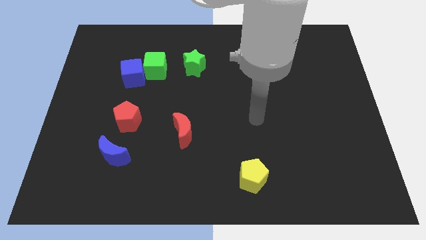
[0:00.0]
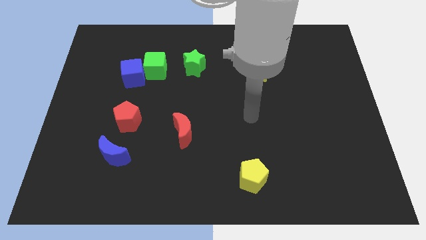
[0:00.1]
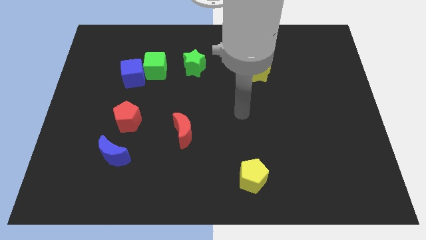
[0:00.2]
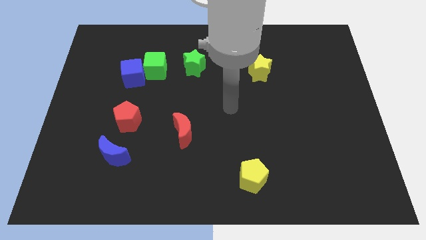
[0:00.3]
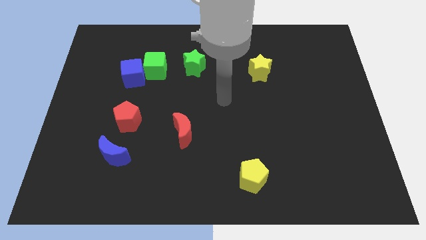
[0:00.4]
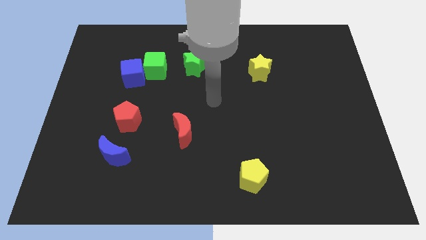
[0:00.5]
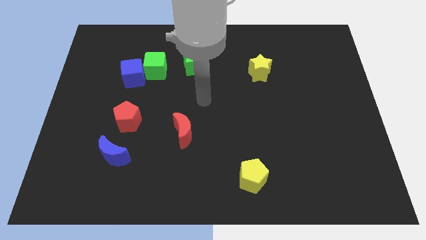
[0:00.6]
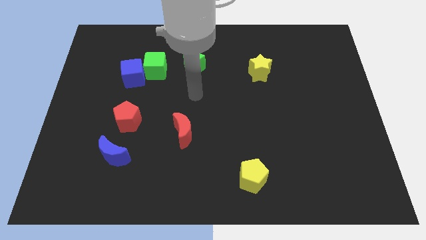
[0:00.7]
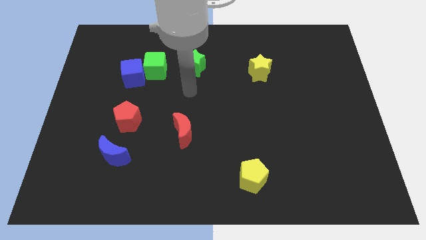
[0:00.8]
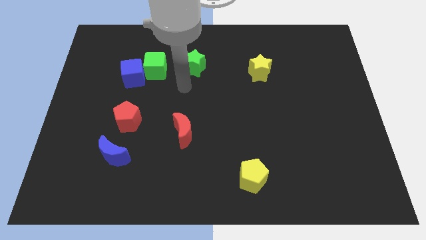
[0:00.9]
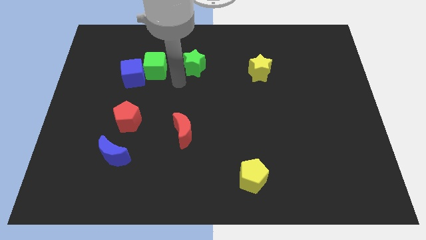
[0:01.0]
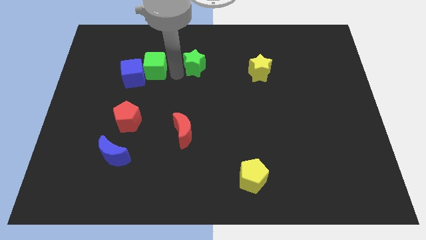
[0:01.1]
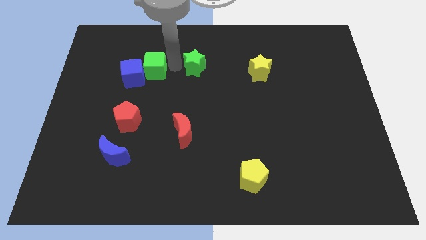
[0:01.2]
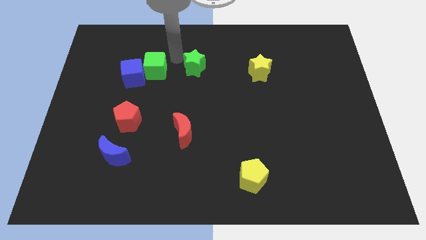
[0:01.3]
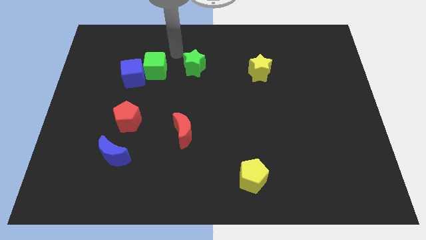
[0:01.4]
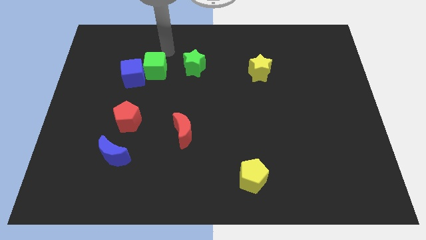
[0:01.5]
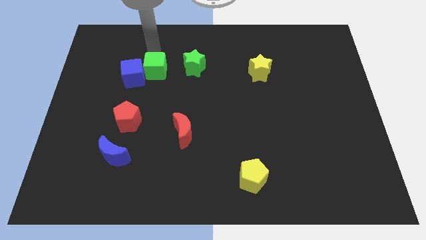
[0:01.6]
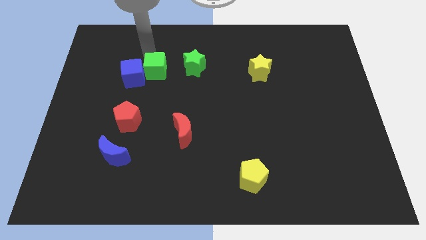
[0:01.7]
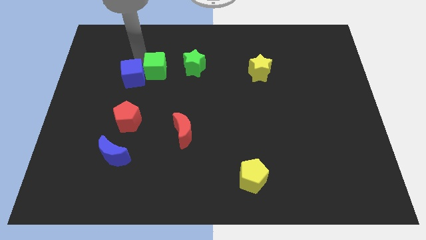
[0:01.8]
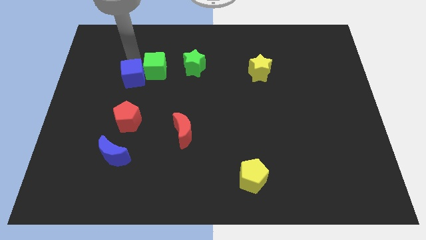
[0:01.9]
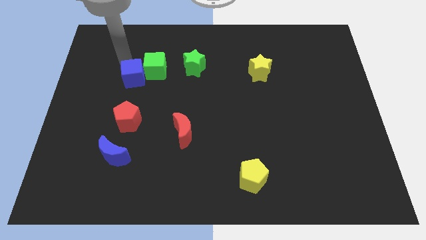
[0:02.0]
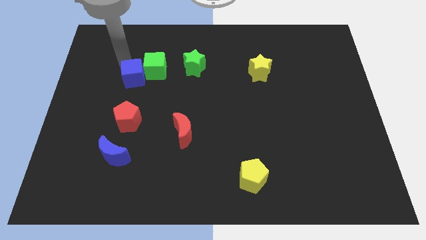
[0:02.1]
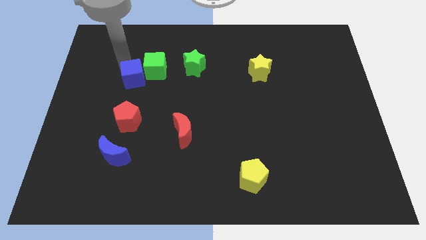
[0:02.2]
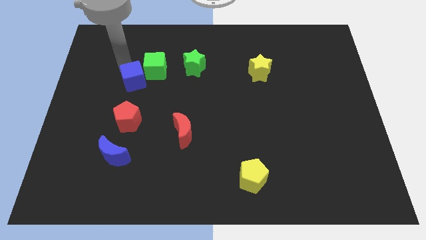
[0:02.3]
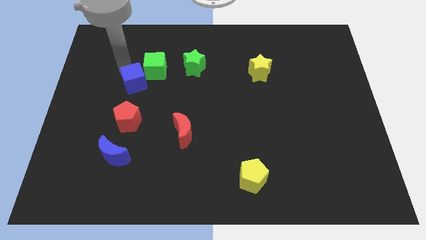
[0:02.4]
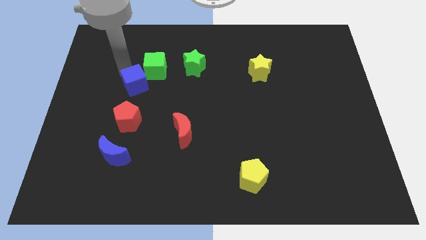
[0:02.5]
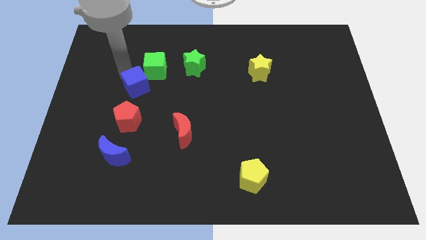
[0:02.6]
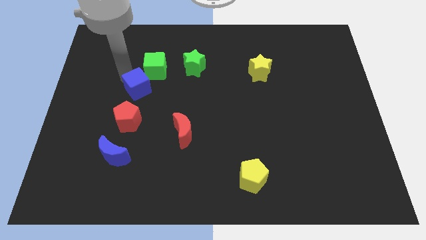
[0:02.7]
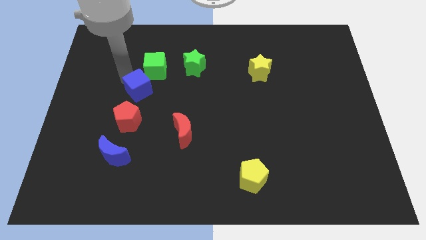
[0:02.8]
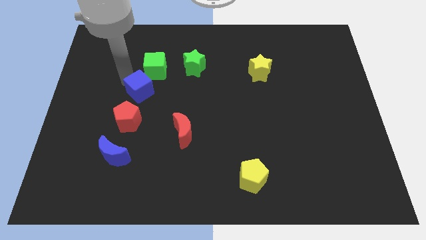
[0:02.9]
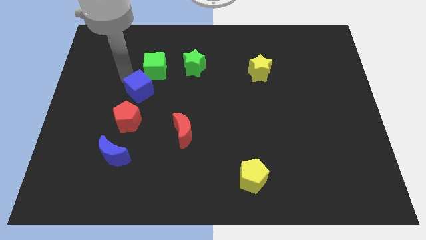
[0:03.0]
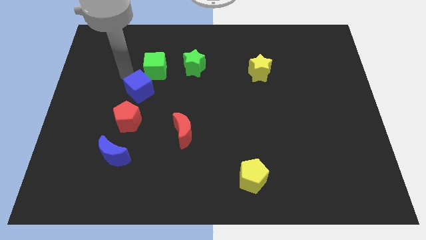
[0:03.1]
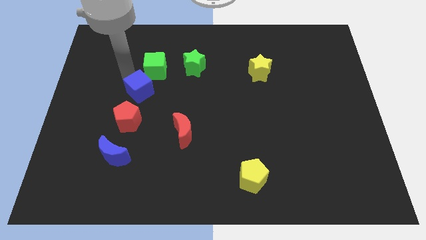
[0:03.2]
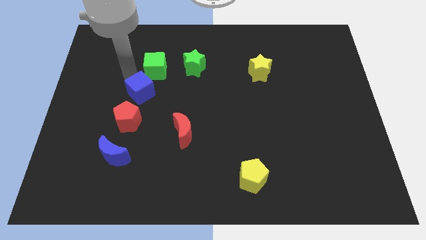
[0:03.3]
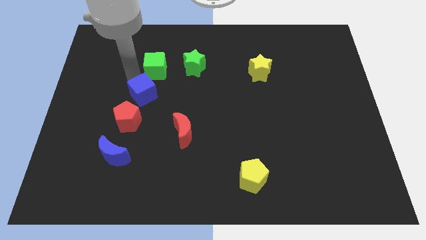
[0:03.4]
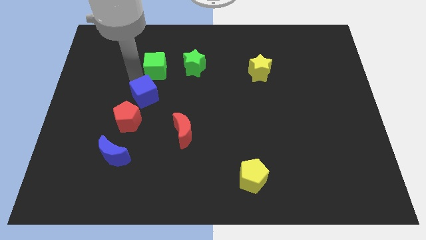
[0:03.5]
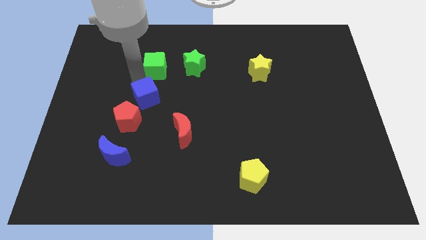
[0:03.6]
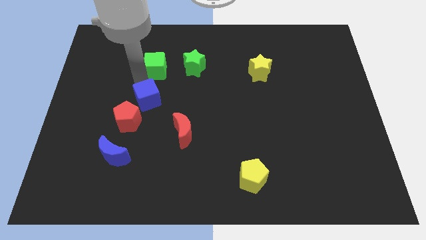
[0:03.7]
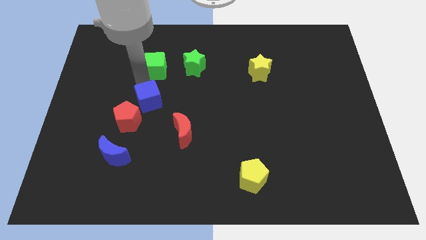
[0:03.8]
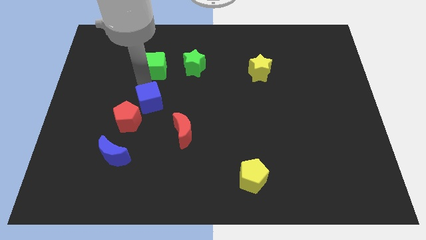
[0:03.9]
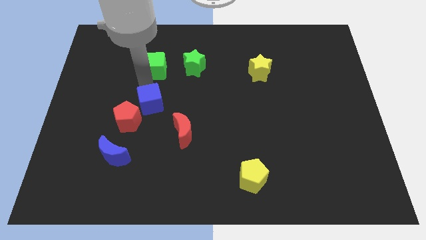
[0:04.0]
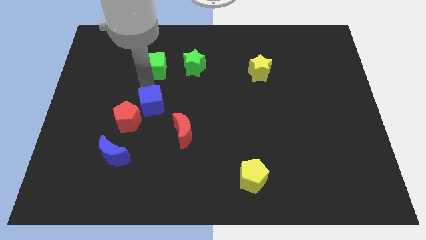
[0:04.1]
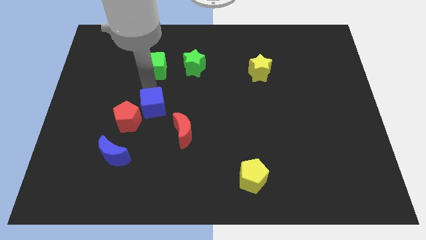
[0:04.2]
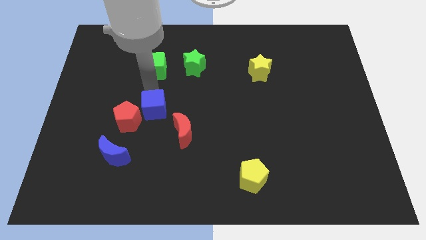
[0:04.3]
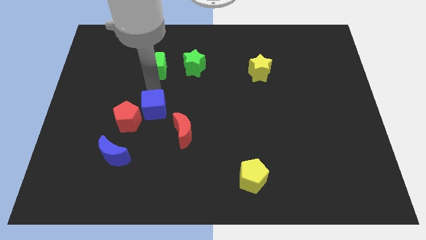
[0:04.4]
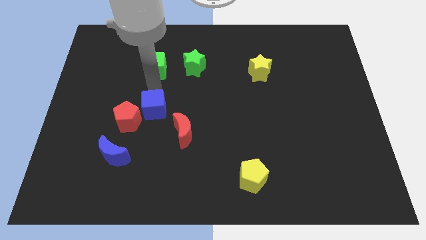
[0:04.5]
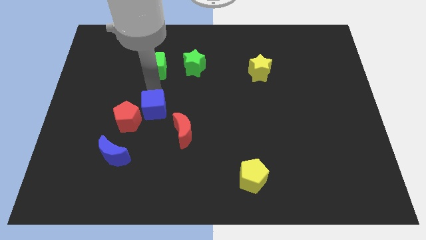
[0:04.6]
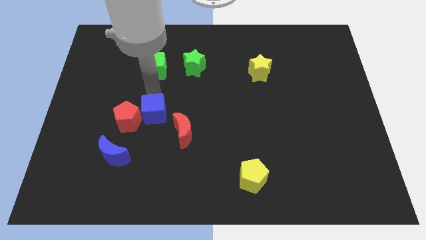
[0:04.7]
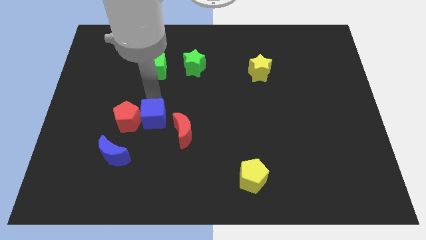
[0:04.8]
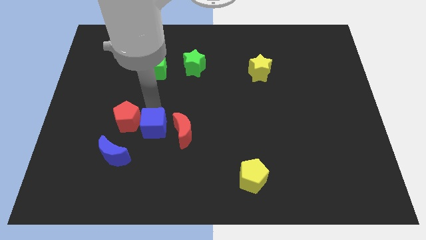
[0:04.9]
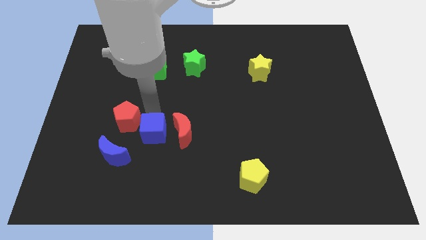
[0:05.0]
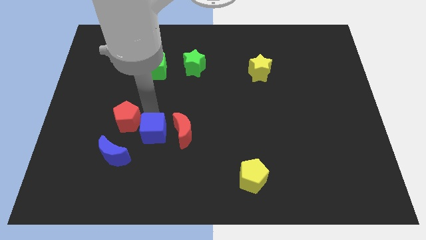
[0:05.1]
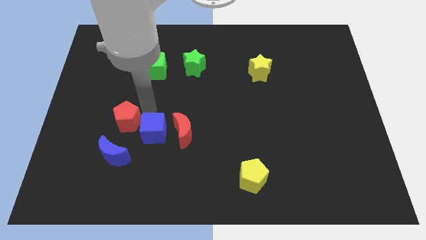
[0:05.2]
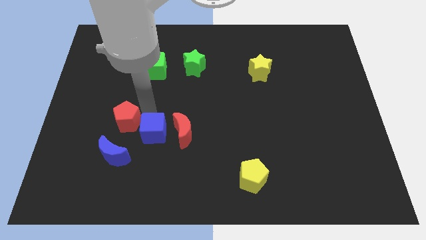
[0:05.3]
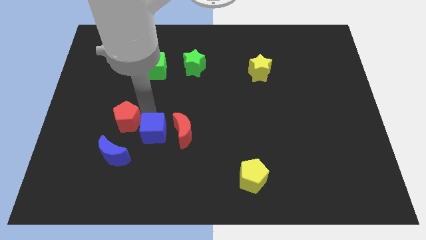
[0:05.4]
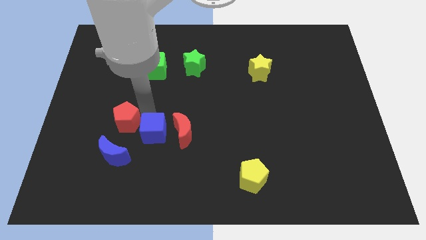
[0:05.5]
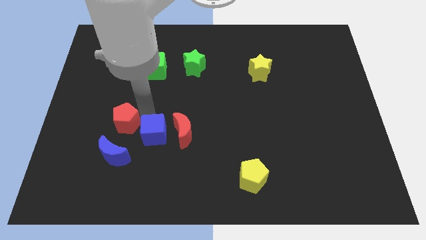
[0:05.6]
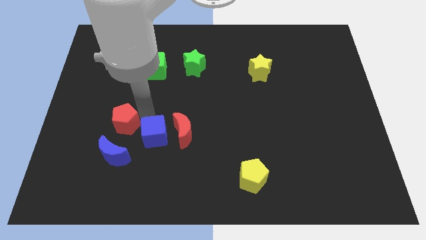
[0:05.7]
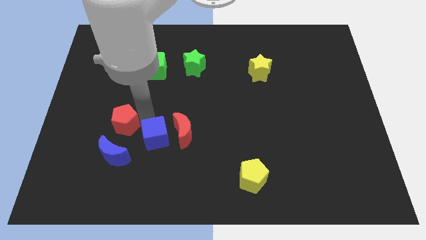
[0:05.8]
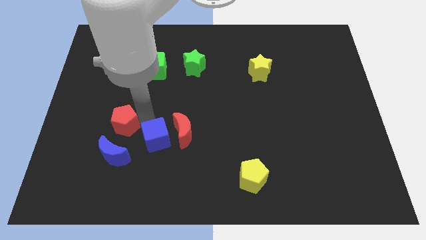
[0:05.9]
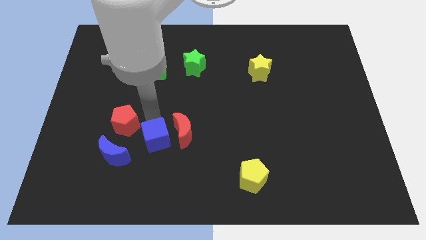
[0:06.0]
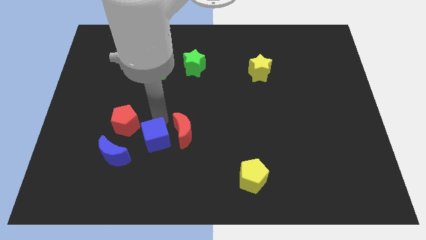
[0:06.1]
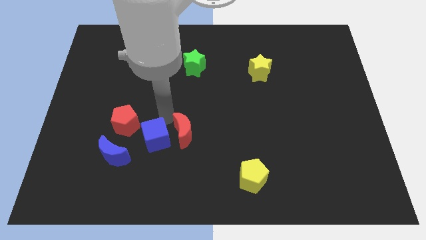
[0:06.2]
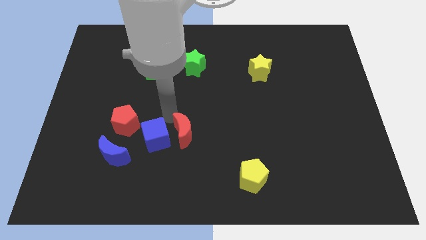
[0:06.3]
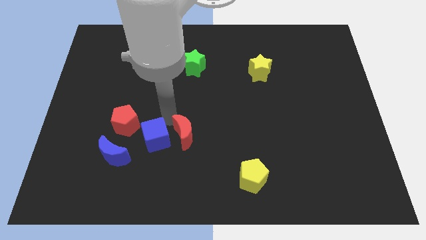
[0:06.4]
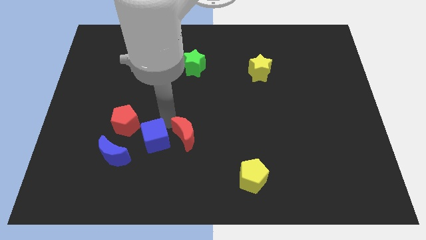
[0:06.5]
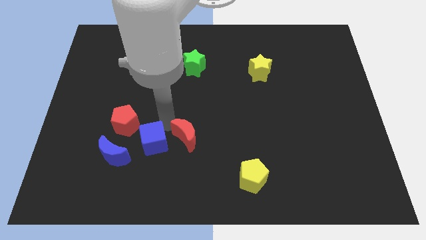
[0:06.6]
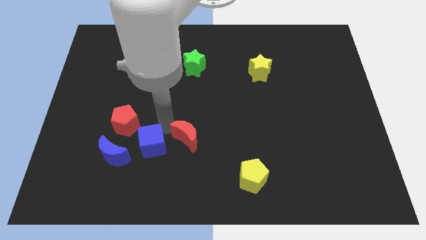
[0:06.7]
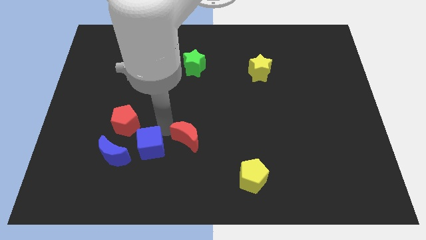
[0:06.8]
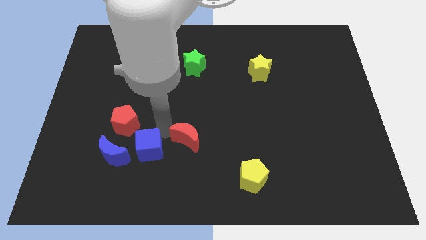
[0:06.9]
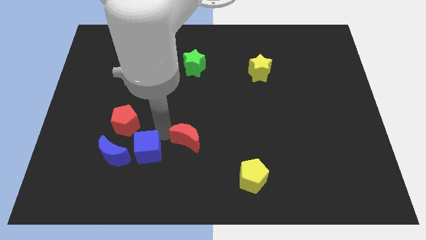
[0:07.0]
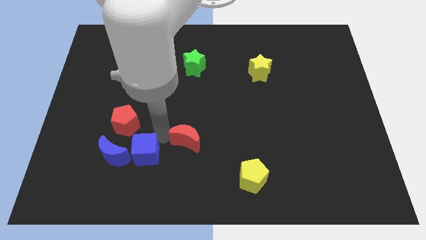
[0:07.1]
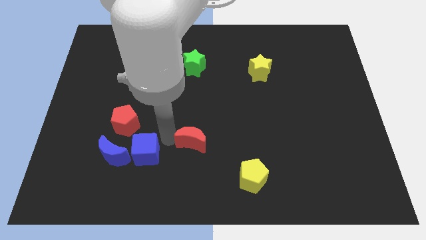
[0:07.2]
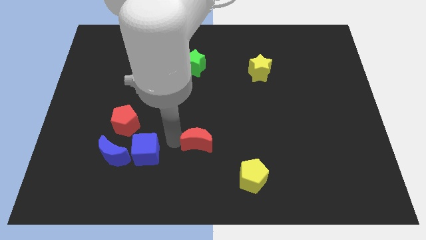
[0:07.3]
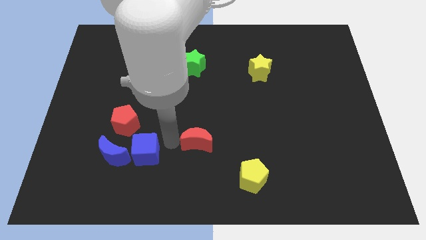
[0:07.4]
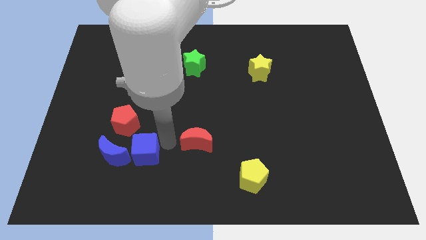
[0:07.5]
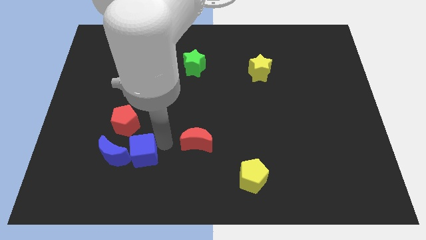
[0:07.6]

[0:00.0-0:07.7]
slide the blue cube to the bottom of the red pentagon
